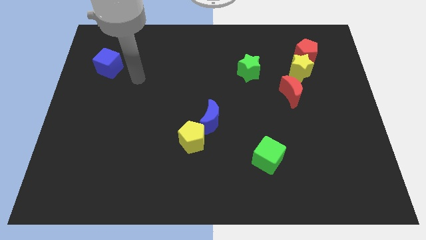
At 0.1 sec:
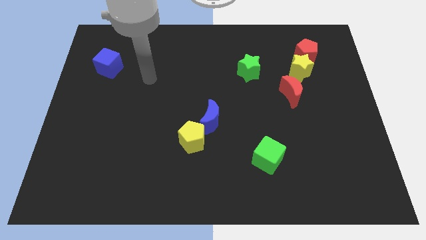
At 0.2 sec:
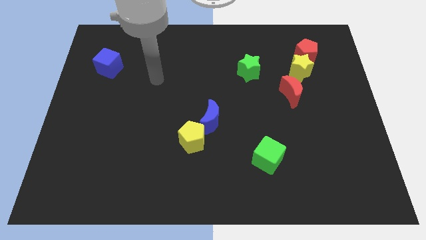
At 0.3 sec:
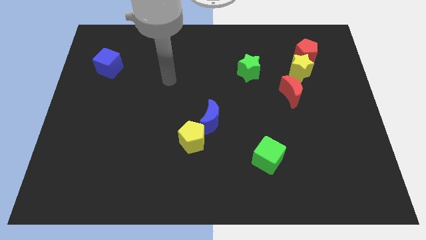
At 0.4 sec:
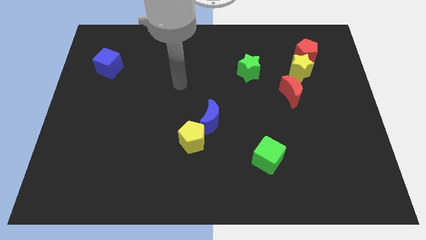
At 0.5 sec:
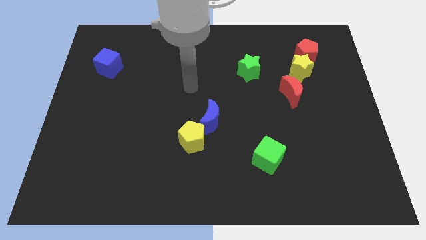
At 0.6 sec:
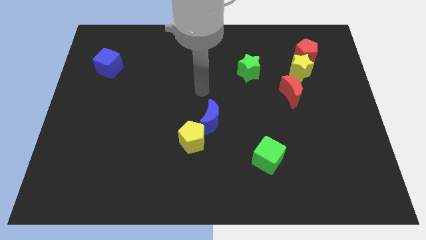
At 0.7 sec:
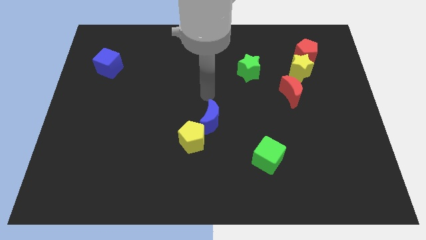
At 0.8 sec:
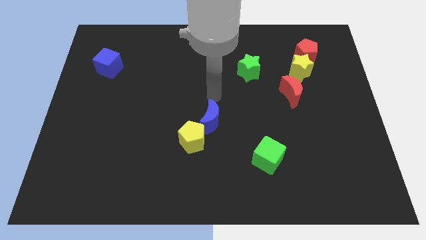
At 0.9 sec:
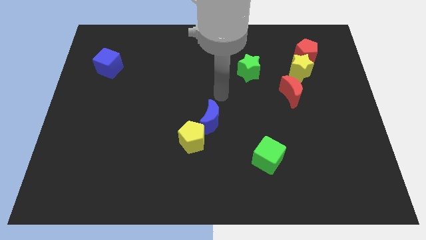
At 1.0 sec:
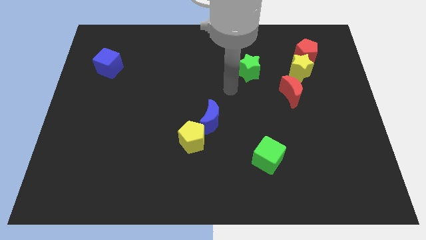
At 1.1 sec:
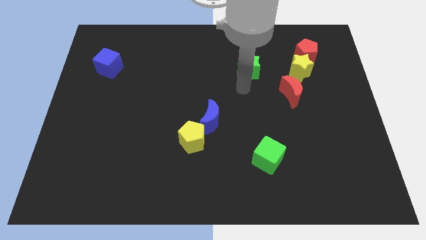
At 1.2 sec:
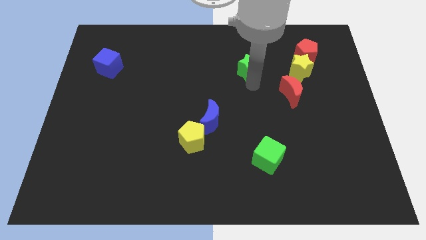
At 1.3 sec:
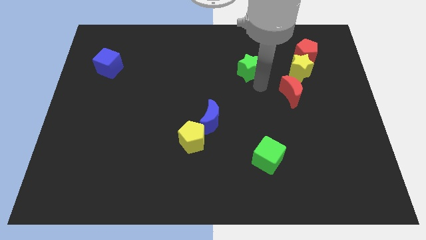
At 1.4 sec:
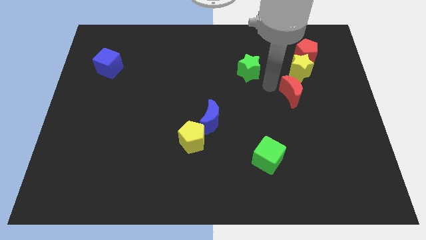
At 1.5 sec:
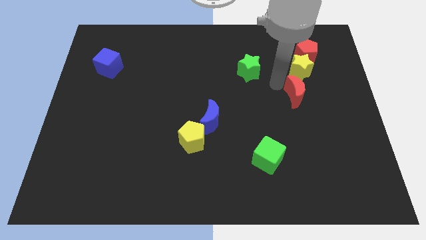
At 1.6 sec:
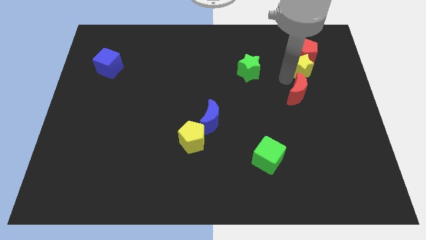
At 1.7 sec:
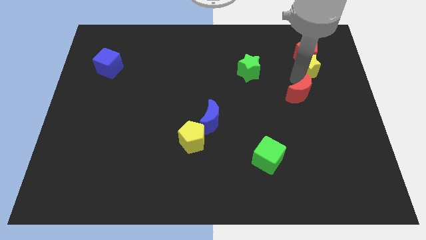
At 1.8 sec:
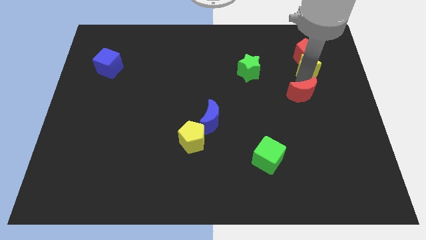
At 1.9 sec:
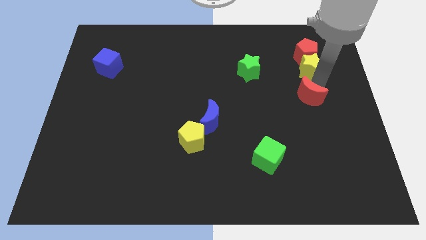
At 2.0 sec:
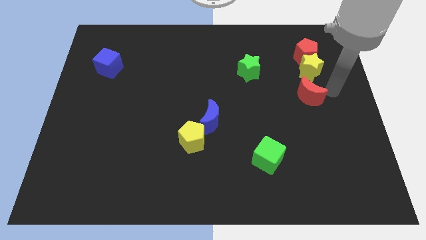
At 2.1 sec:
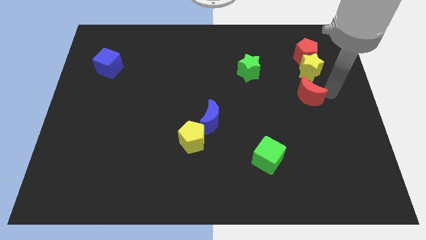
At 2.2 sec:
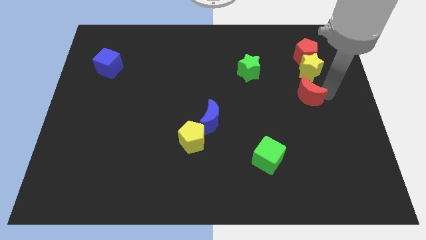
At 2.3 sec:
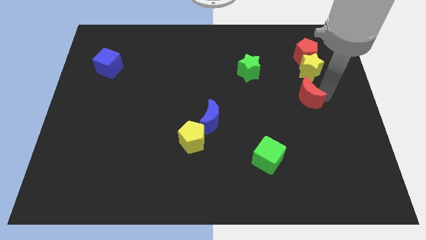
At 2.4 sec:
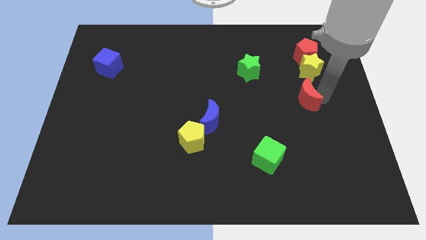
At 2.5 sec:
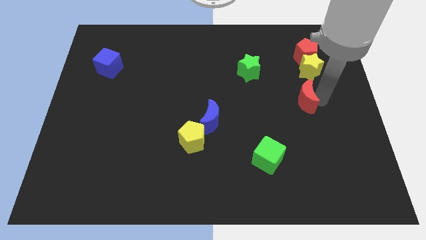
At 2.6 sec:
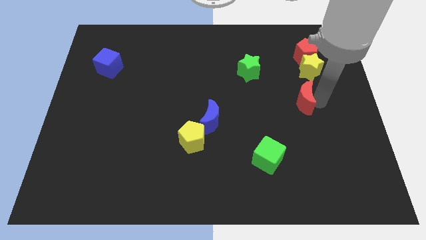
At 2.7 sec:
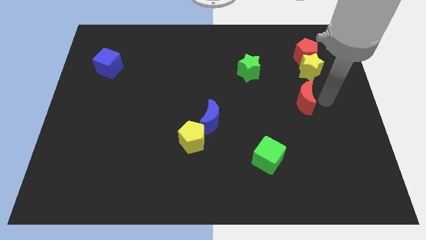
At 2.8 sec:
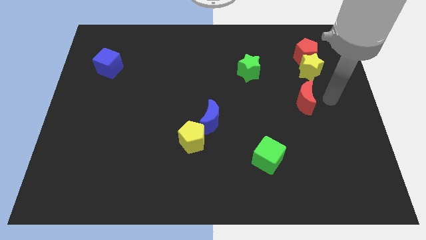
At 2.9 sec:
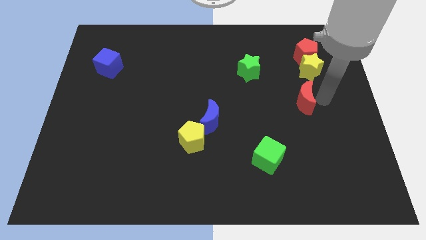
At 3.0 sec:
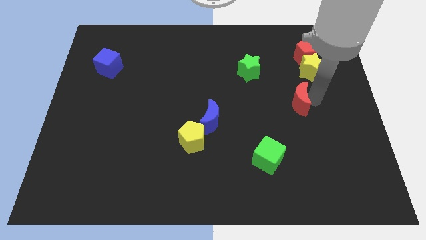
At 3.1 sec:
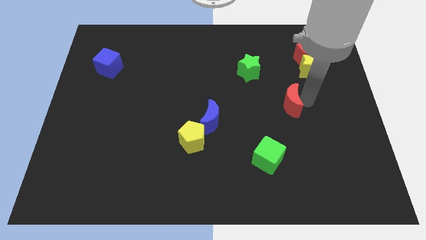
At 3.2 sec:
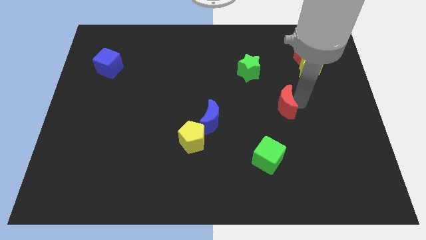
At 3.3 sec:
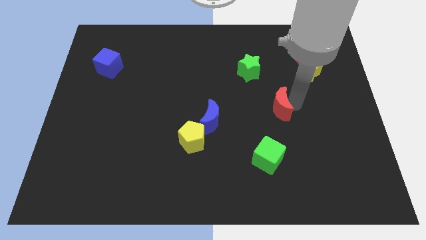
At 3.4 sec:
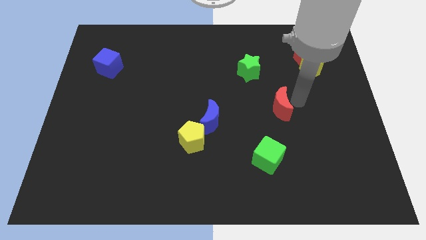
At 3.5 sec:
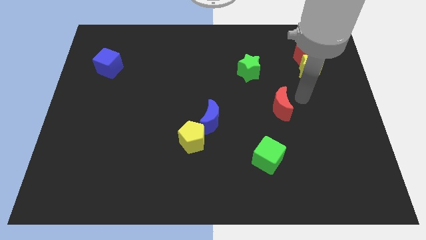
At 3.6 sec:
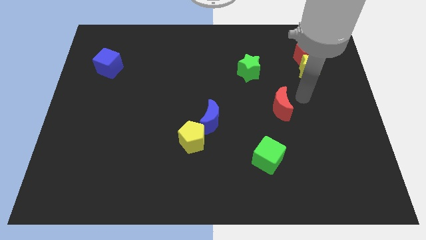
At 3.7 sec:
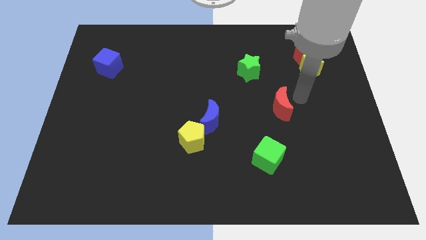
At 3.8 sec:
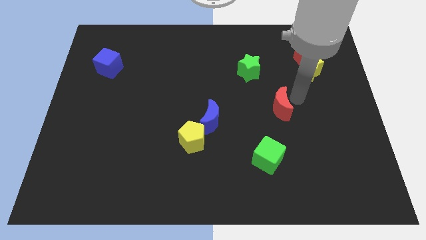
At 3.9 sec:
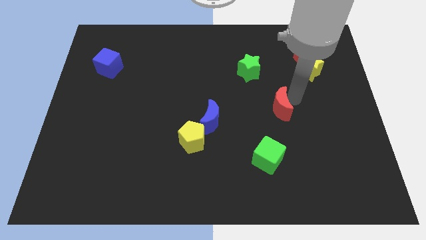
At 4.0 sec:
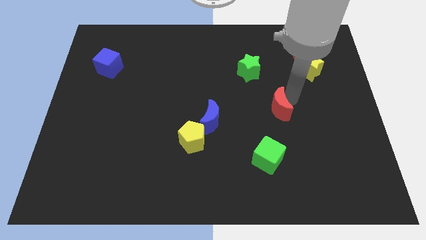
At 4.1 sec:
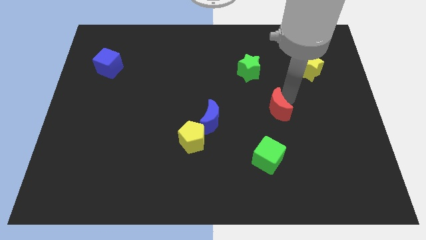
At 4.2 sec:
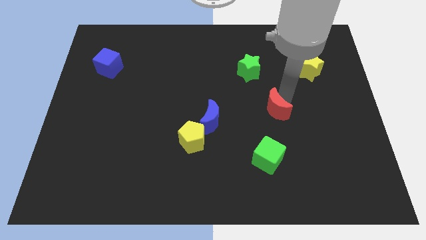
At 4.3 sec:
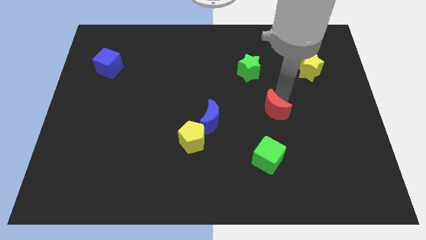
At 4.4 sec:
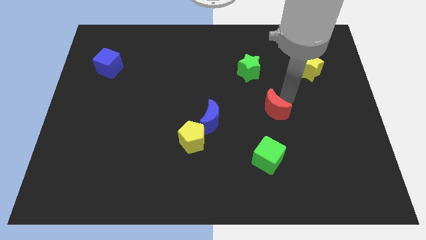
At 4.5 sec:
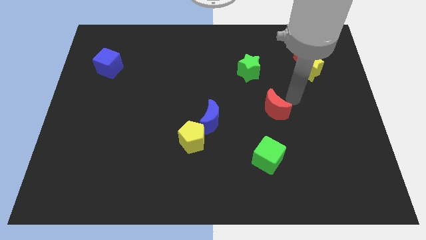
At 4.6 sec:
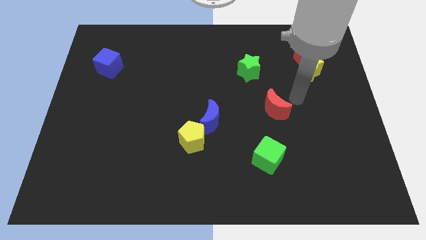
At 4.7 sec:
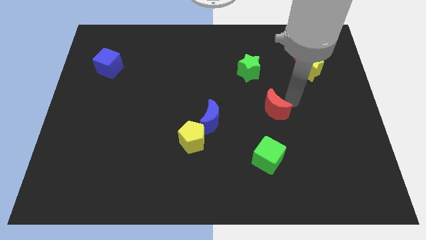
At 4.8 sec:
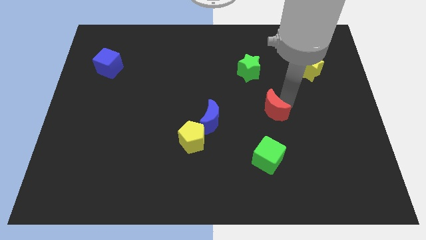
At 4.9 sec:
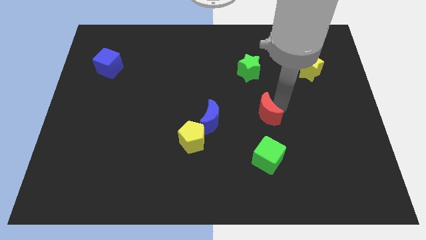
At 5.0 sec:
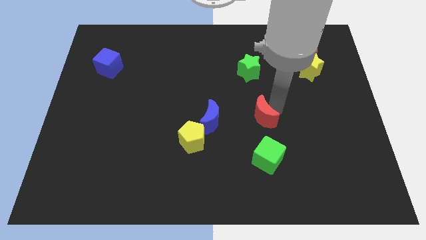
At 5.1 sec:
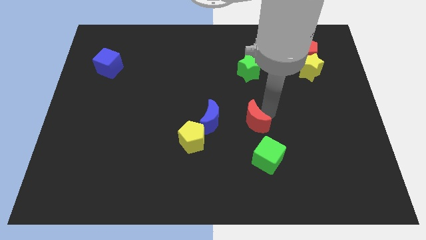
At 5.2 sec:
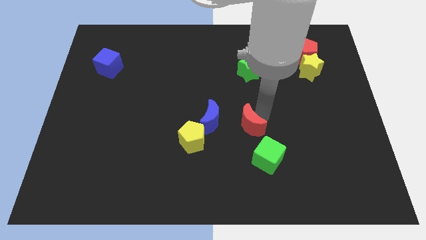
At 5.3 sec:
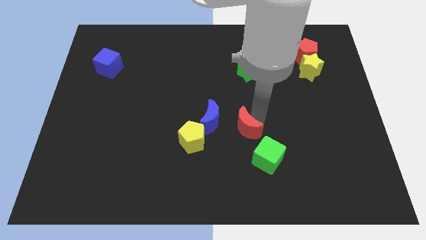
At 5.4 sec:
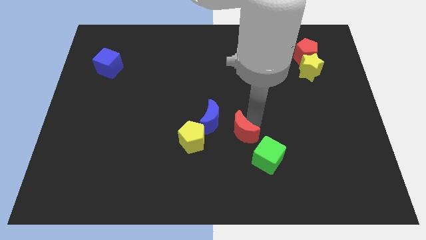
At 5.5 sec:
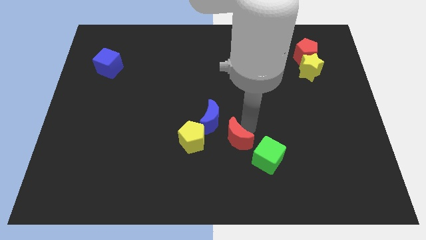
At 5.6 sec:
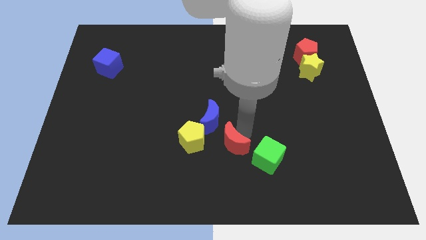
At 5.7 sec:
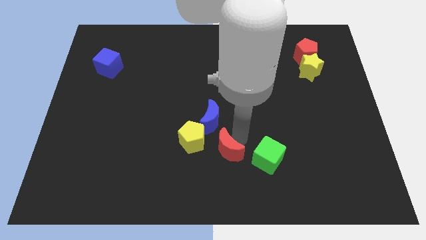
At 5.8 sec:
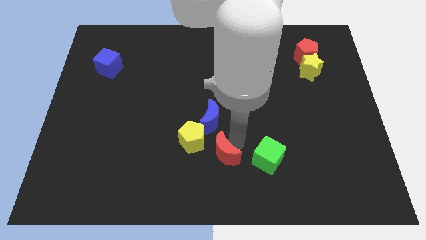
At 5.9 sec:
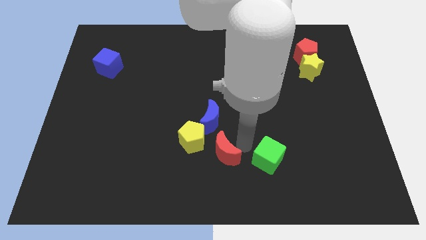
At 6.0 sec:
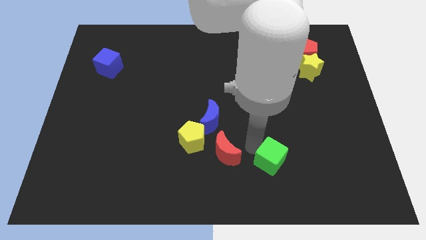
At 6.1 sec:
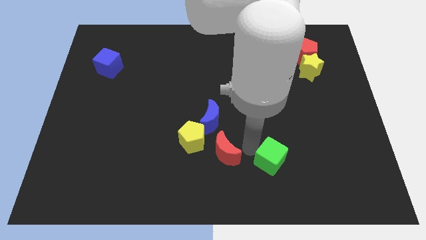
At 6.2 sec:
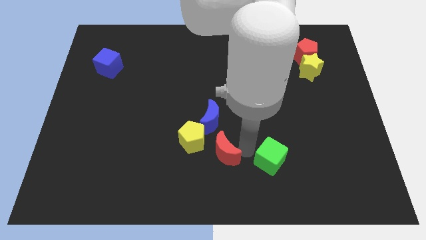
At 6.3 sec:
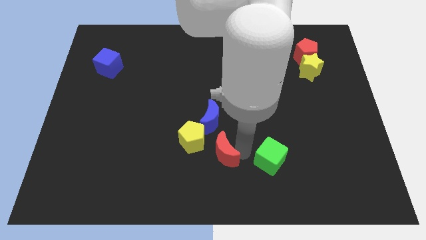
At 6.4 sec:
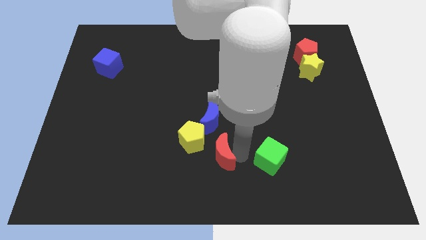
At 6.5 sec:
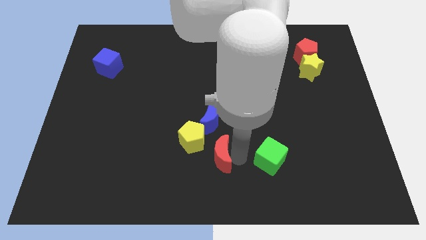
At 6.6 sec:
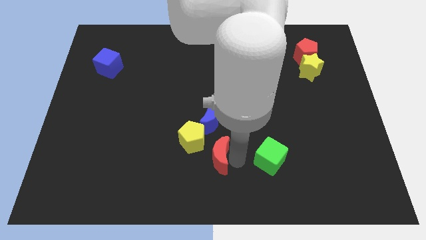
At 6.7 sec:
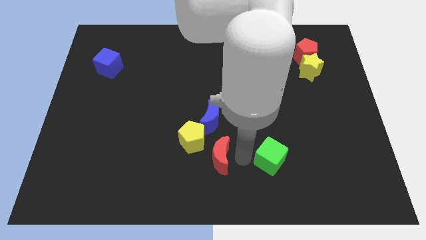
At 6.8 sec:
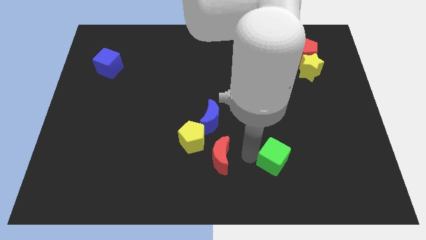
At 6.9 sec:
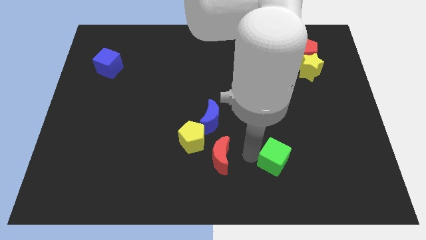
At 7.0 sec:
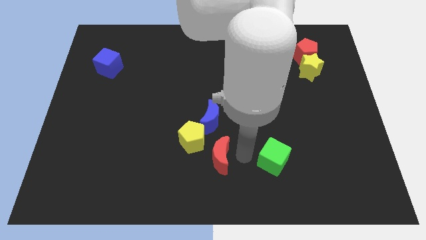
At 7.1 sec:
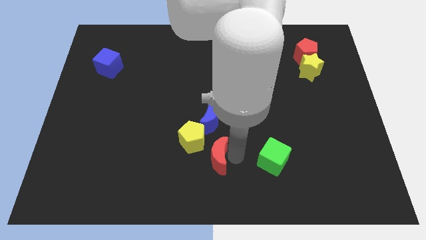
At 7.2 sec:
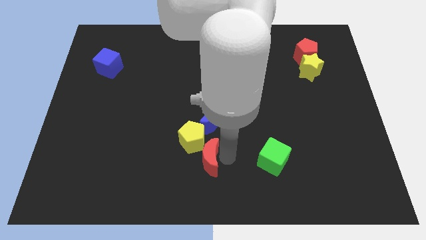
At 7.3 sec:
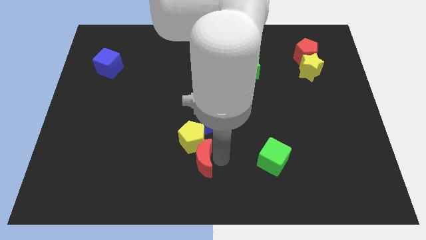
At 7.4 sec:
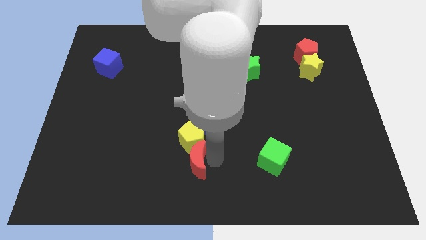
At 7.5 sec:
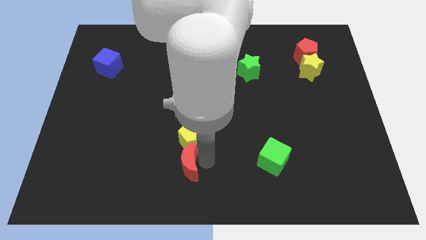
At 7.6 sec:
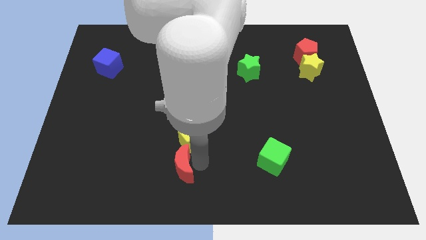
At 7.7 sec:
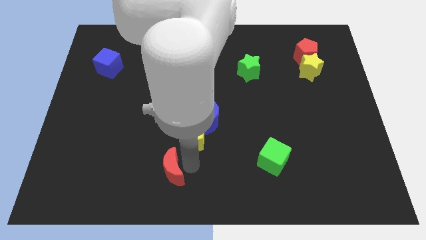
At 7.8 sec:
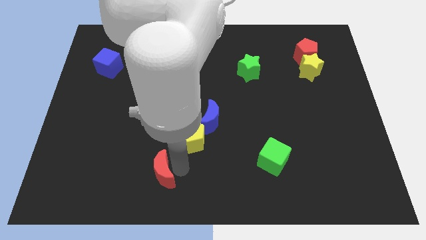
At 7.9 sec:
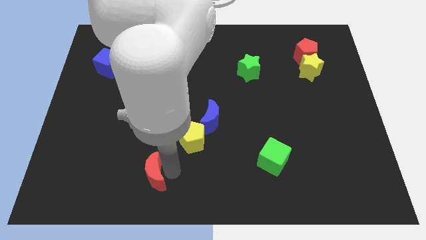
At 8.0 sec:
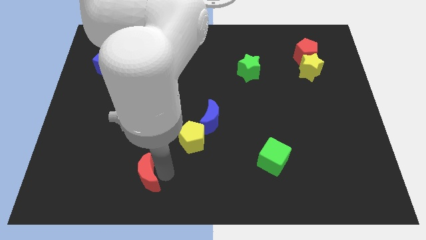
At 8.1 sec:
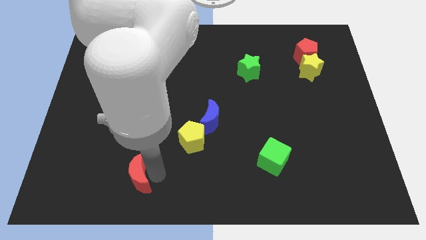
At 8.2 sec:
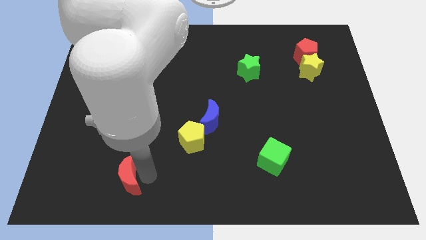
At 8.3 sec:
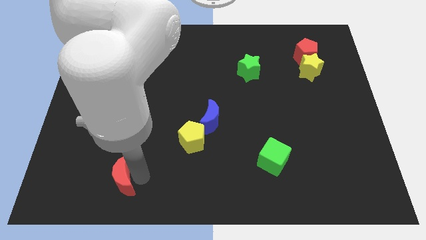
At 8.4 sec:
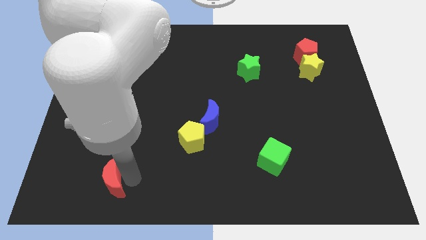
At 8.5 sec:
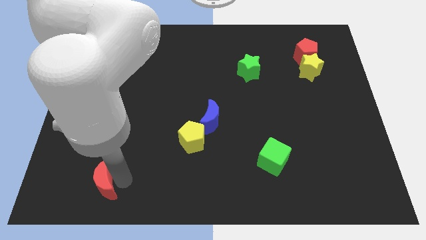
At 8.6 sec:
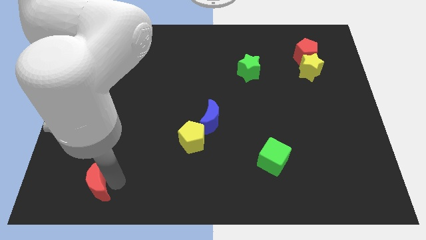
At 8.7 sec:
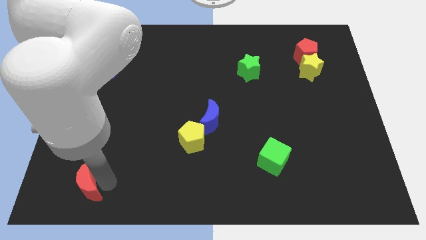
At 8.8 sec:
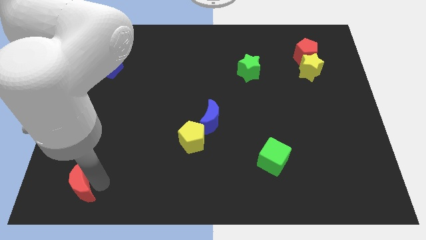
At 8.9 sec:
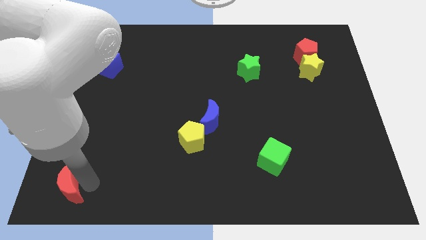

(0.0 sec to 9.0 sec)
slide the red moon to the bottom left of the board
